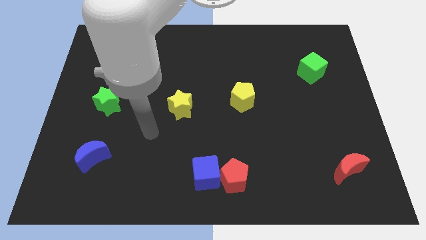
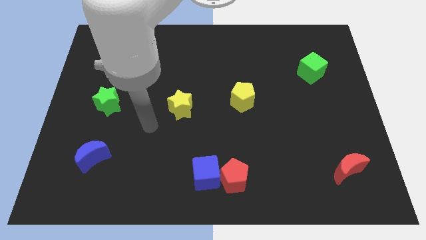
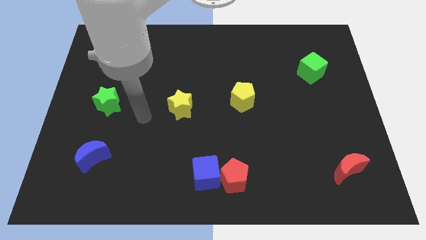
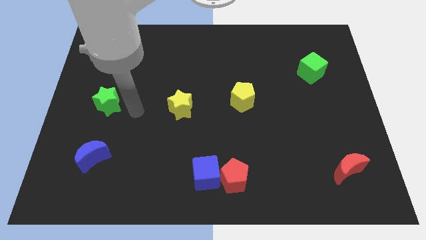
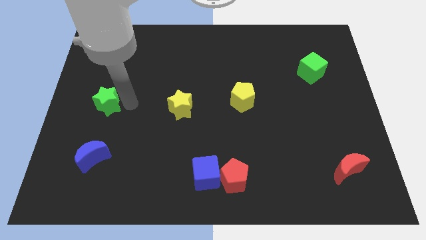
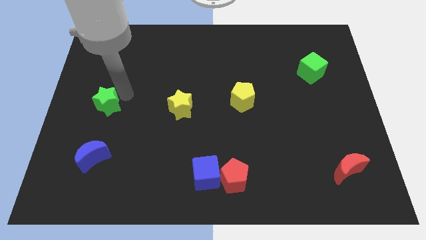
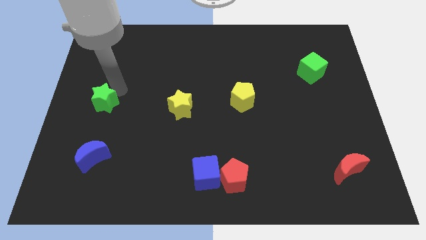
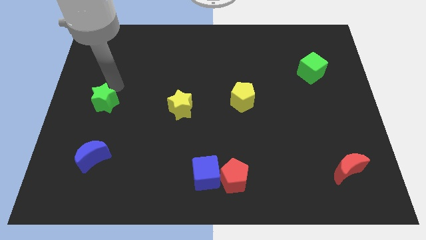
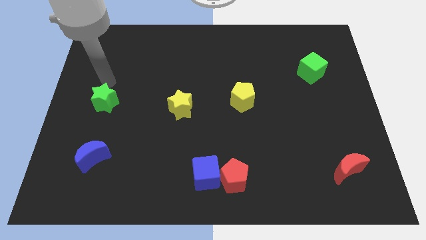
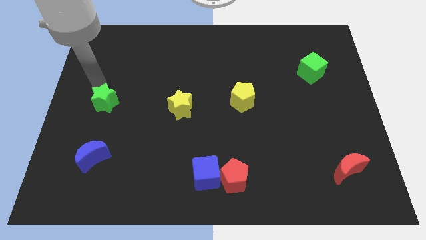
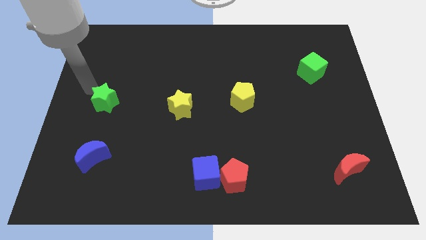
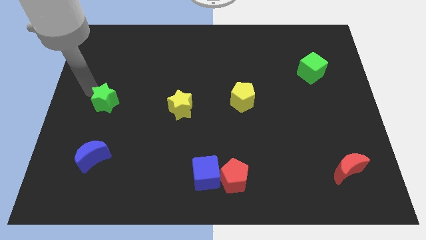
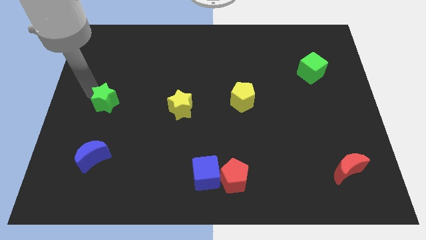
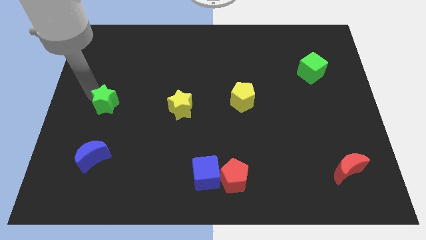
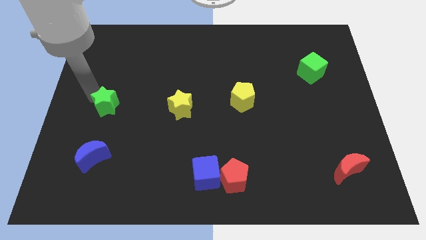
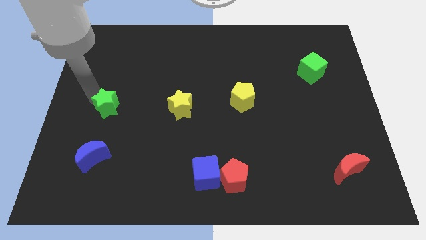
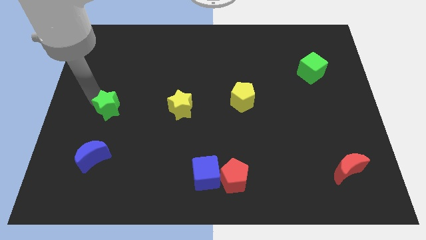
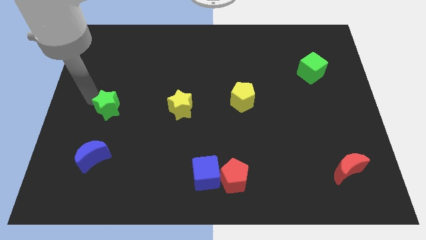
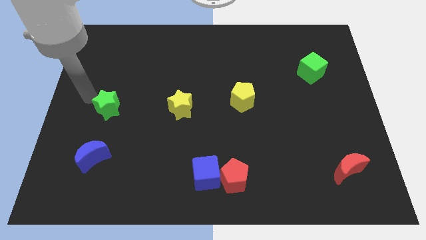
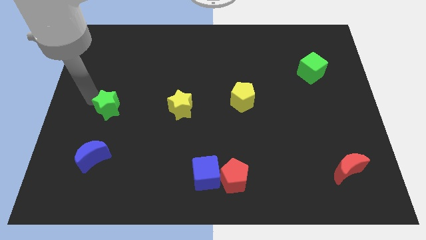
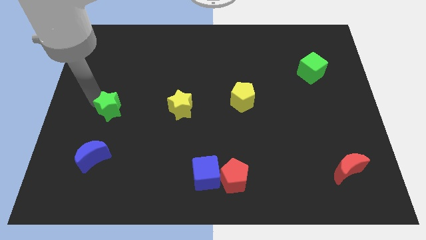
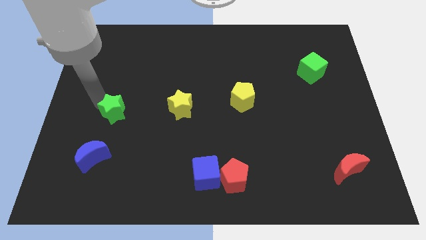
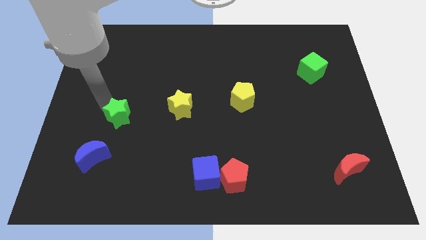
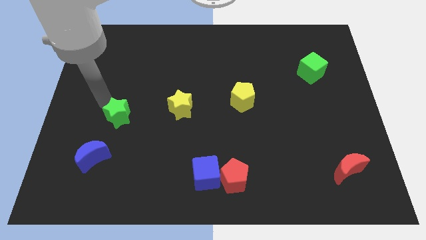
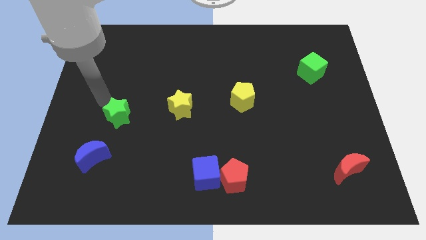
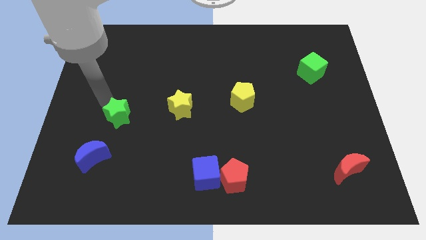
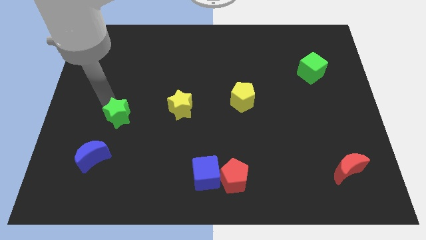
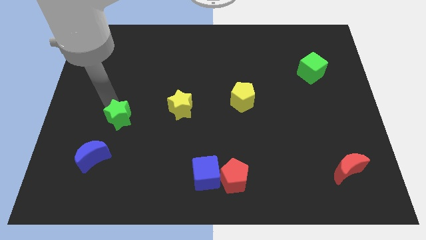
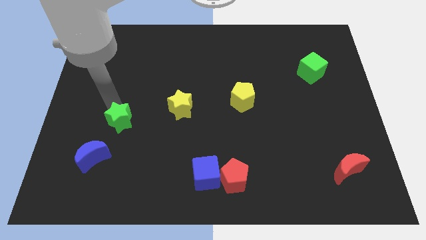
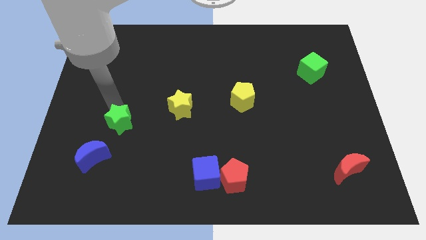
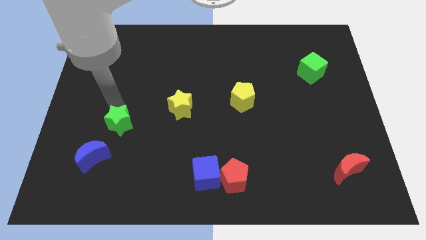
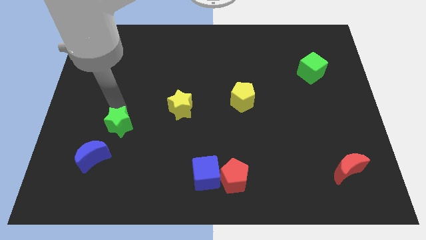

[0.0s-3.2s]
push the green star diagonally downwards and right a little bit

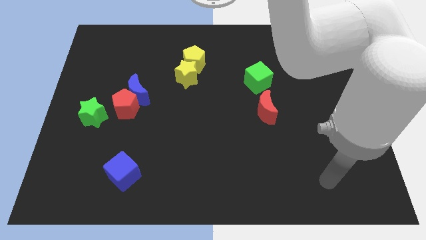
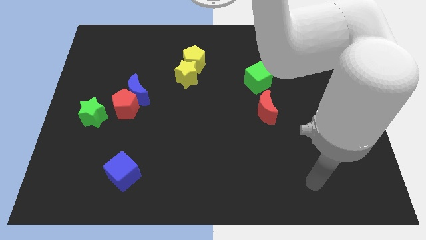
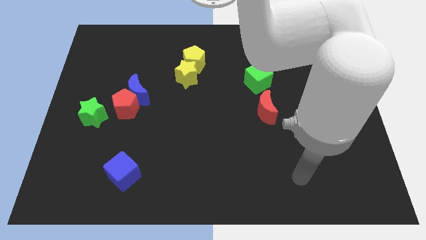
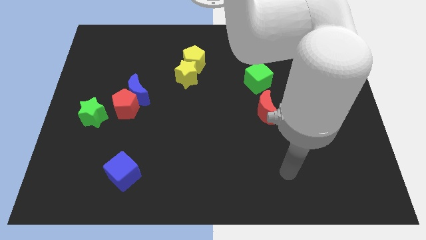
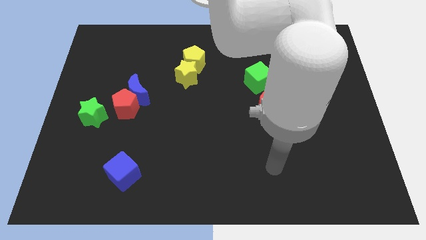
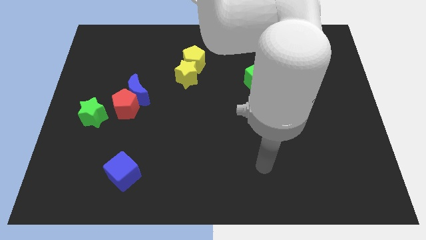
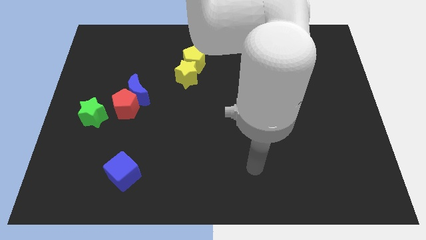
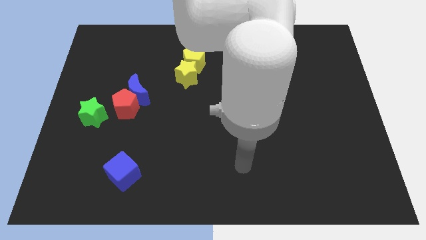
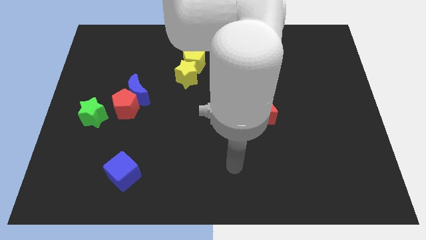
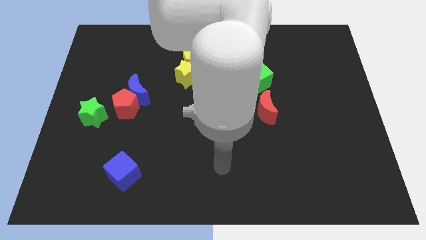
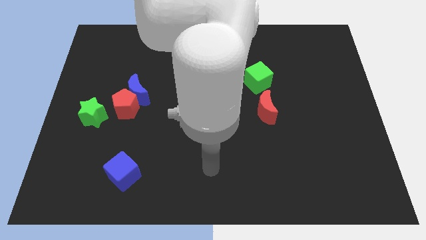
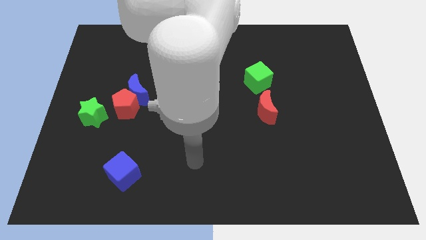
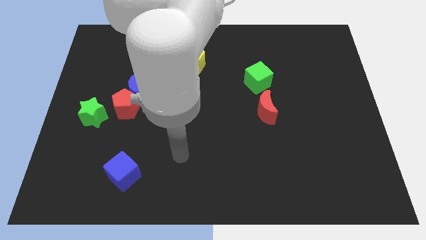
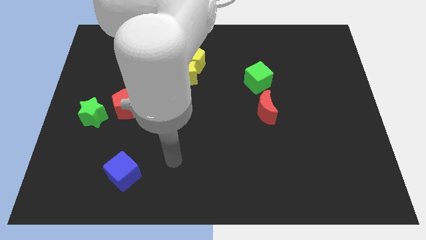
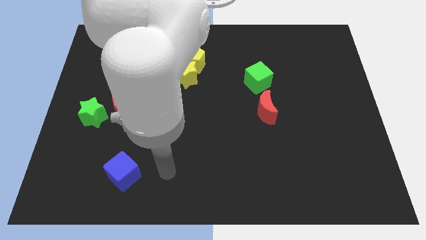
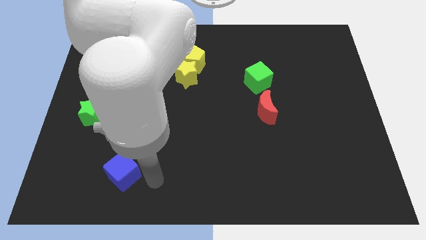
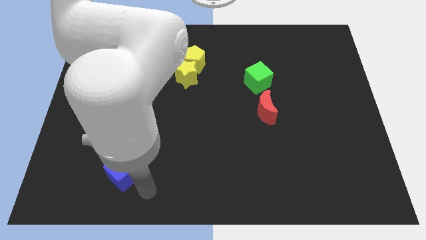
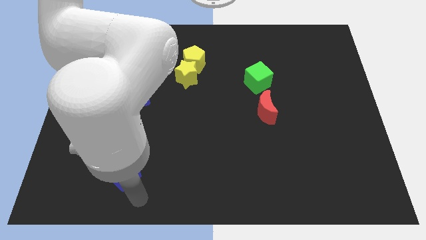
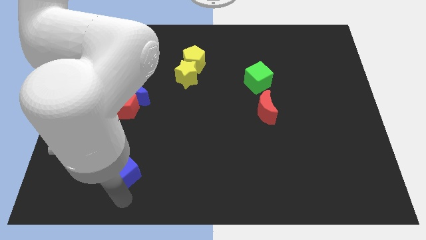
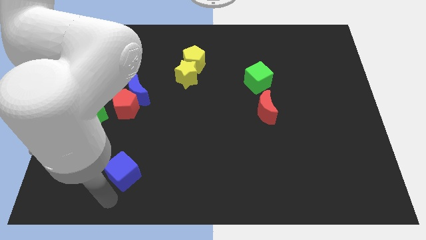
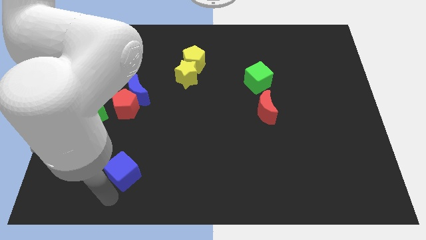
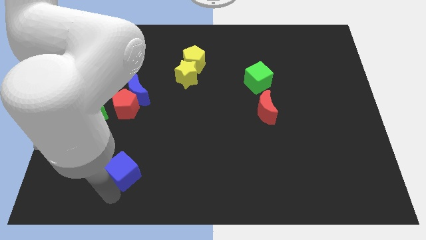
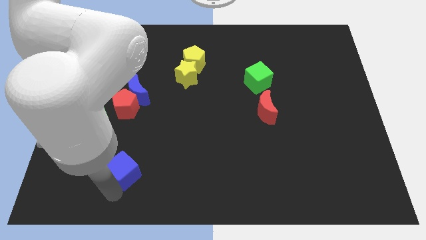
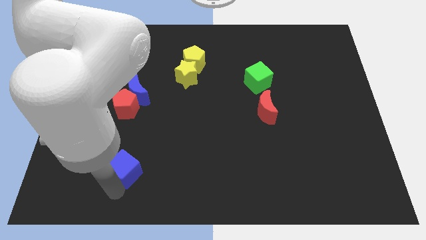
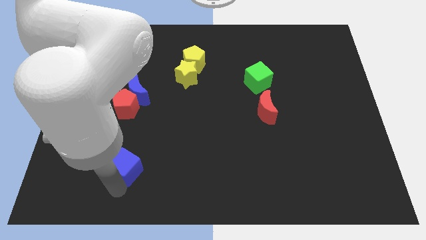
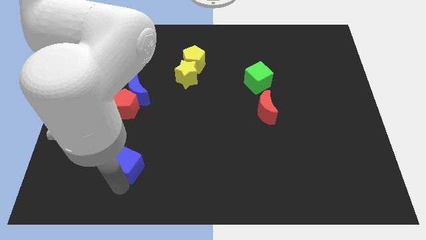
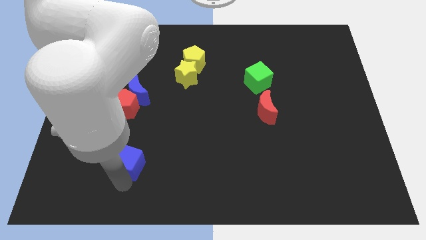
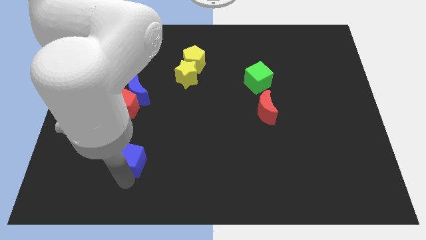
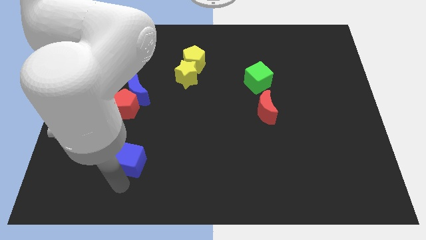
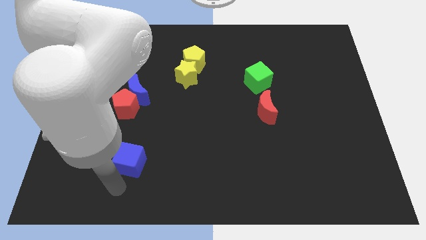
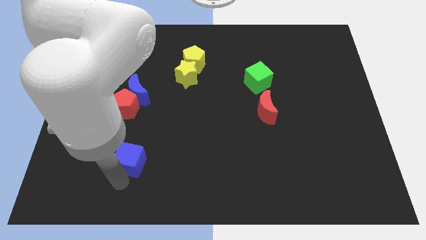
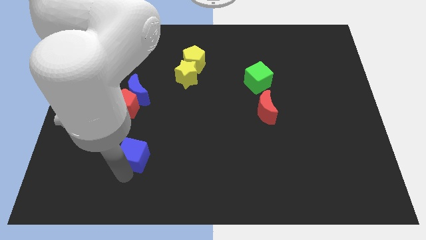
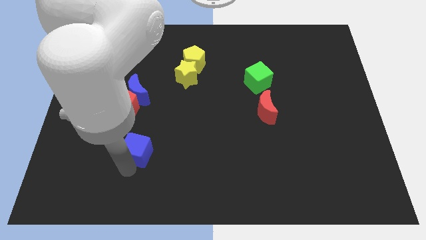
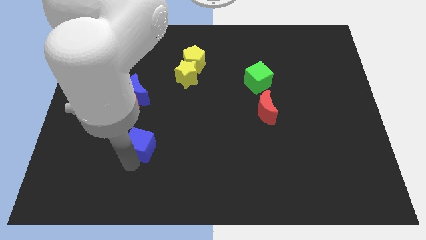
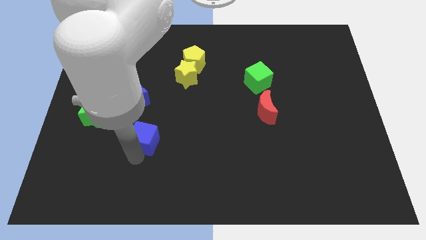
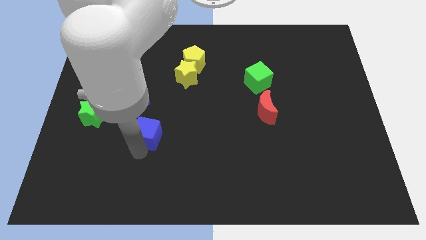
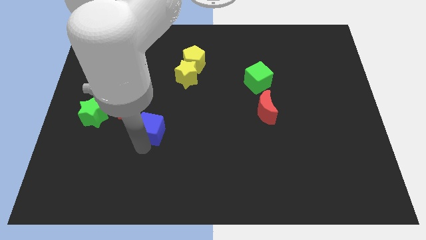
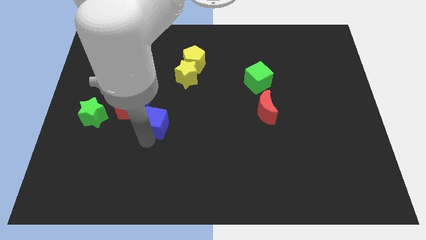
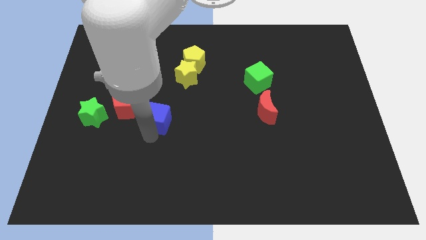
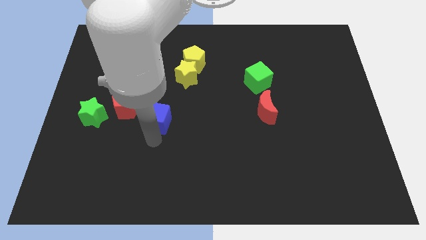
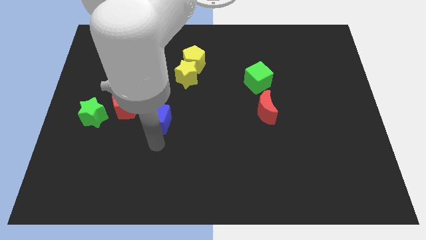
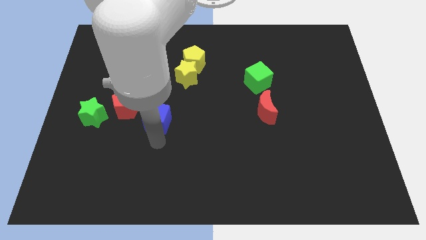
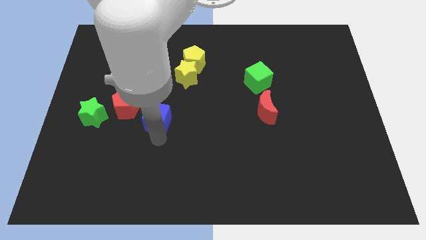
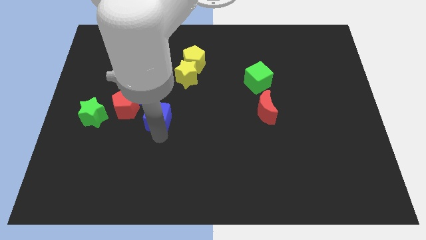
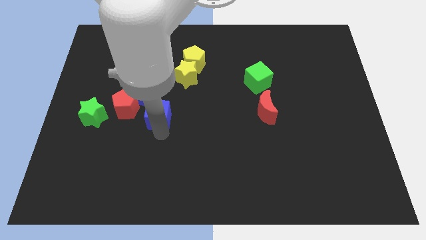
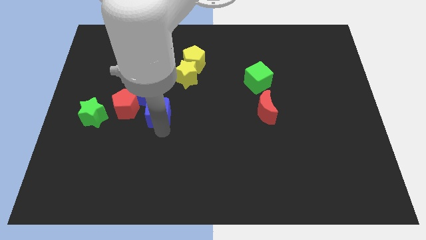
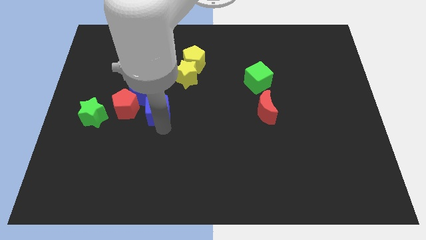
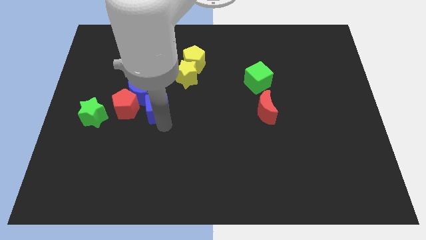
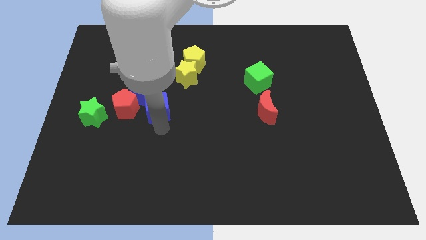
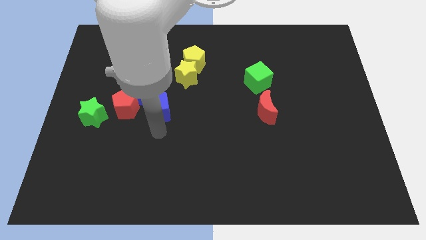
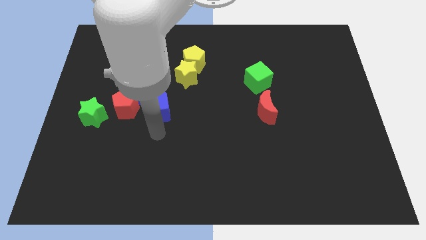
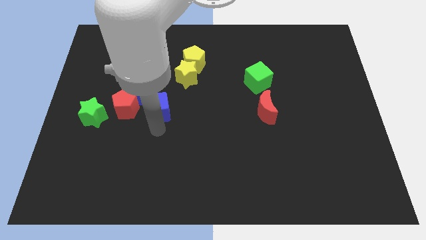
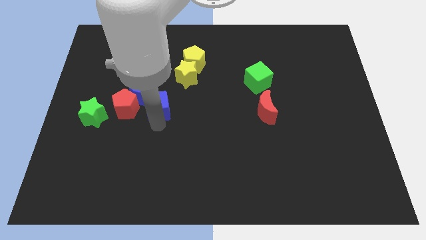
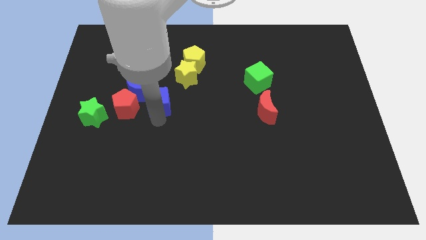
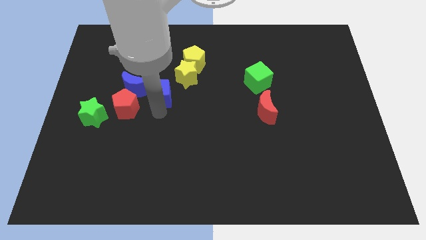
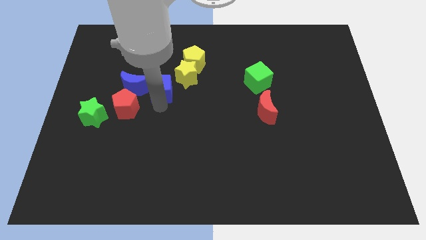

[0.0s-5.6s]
slide the blue cube upwards
